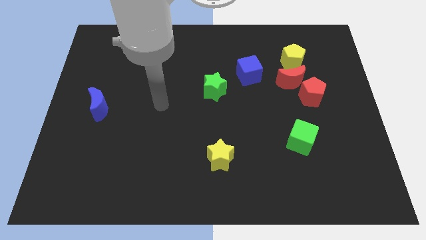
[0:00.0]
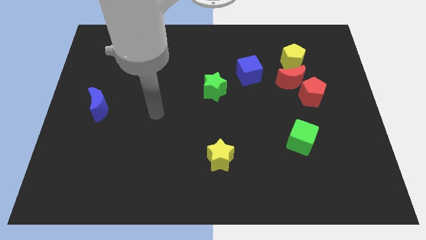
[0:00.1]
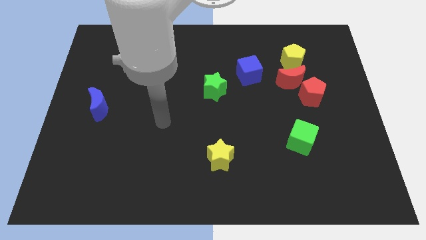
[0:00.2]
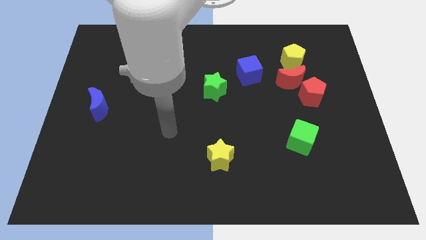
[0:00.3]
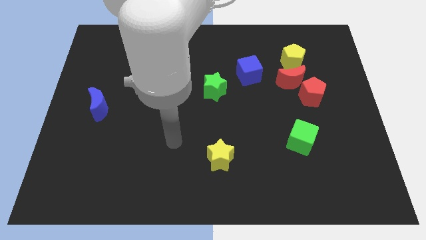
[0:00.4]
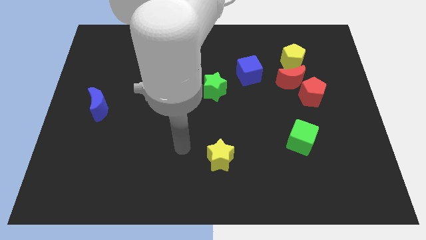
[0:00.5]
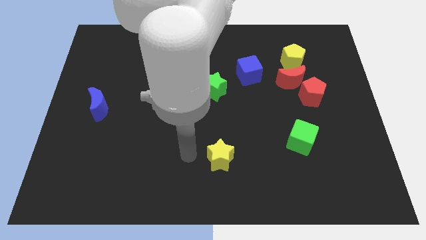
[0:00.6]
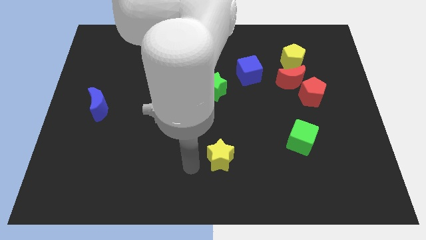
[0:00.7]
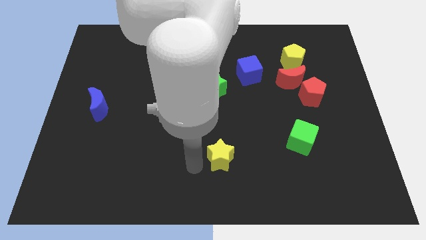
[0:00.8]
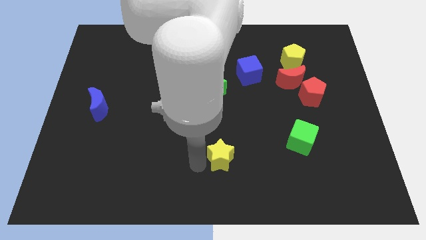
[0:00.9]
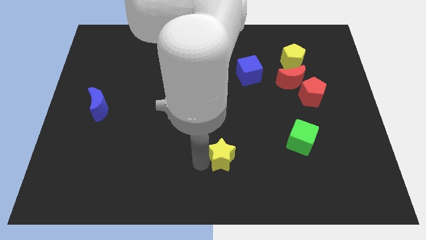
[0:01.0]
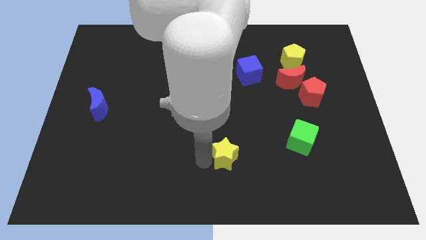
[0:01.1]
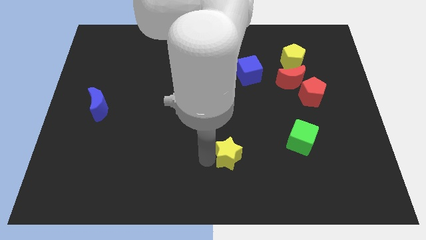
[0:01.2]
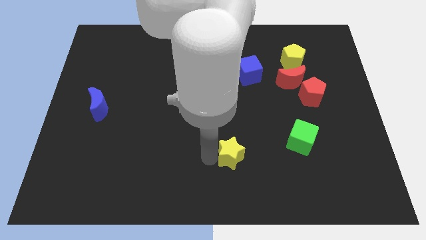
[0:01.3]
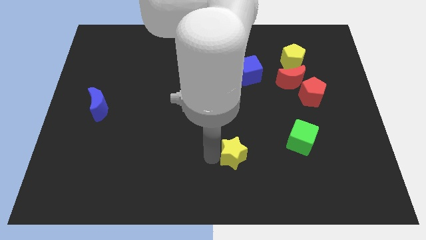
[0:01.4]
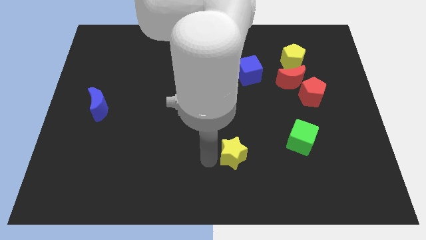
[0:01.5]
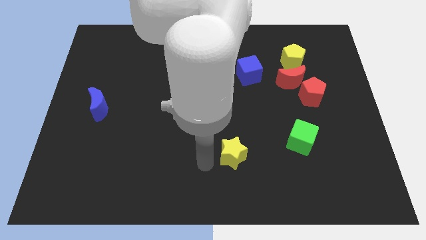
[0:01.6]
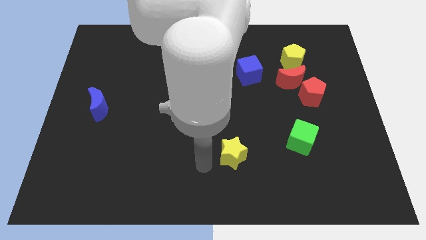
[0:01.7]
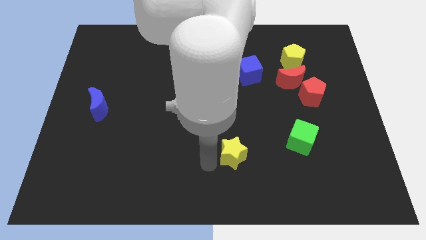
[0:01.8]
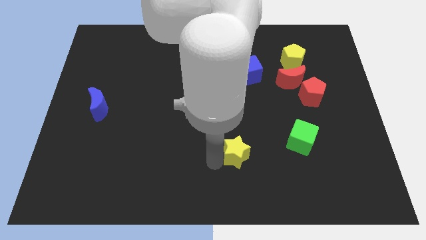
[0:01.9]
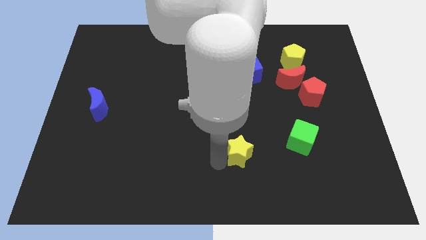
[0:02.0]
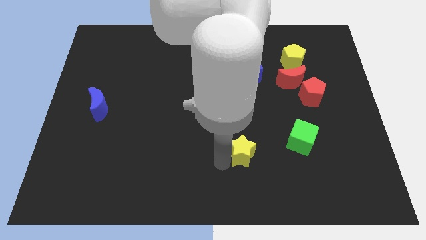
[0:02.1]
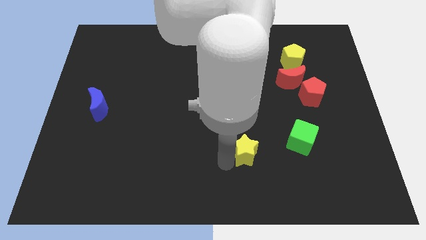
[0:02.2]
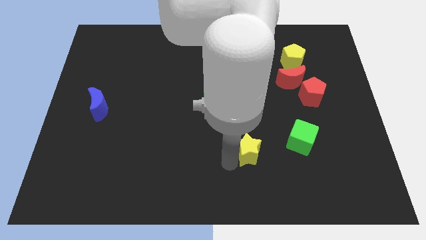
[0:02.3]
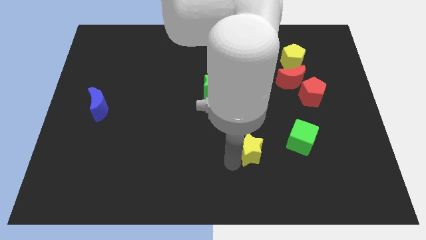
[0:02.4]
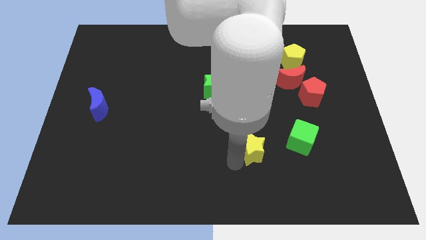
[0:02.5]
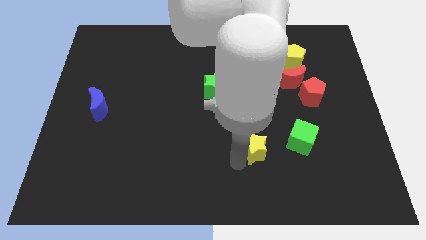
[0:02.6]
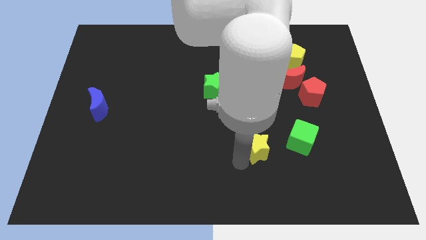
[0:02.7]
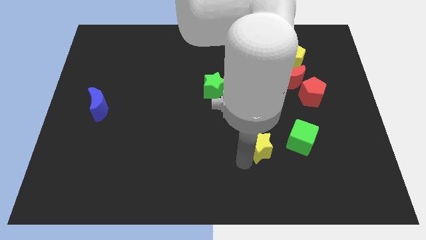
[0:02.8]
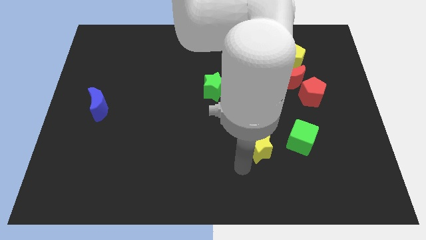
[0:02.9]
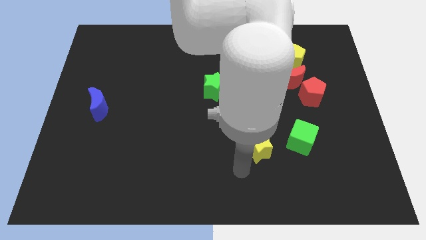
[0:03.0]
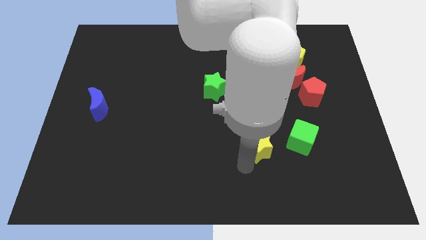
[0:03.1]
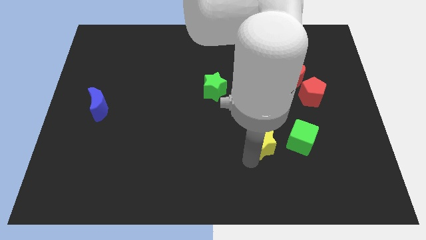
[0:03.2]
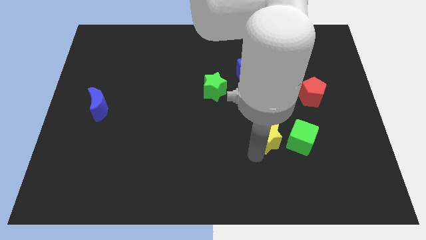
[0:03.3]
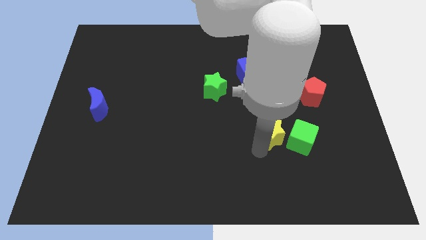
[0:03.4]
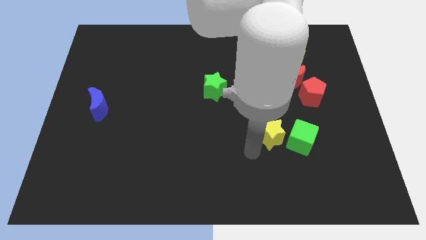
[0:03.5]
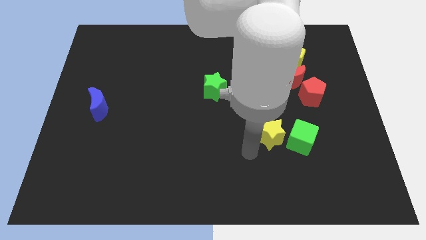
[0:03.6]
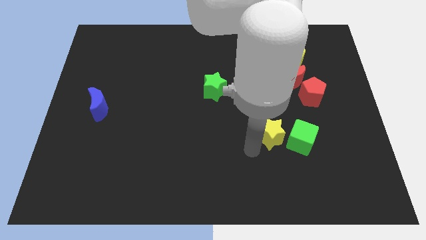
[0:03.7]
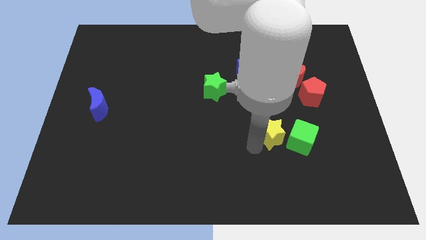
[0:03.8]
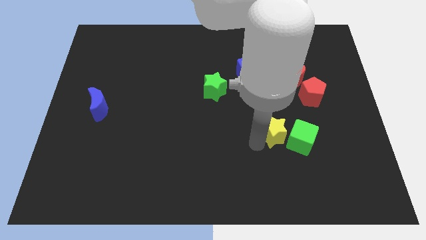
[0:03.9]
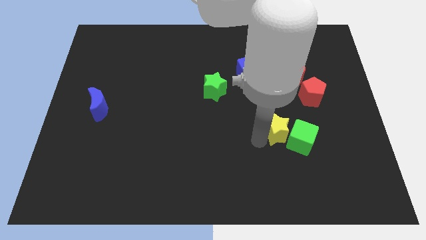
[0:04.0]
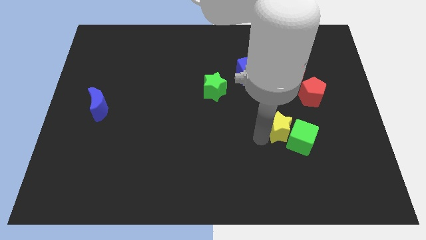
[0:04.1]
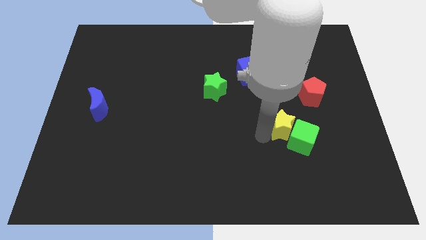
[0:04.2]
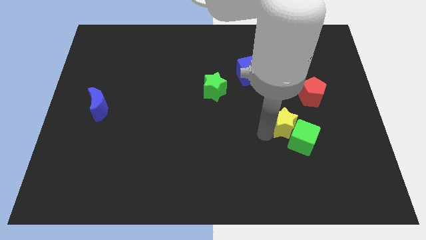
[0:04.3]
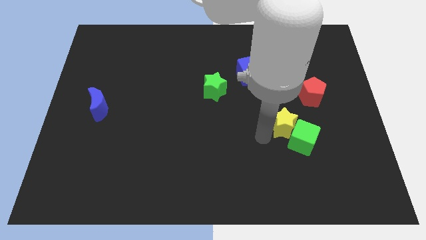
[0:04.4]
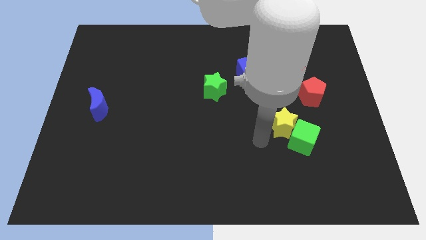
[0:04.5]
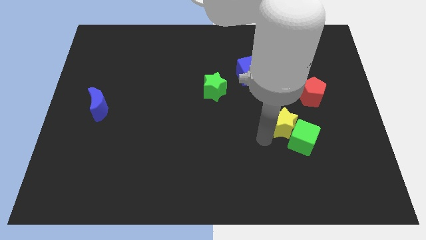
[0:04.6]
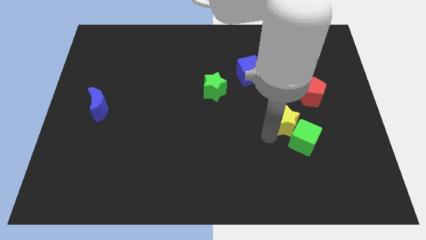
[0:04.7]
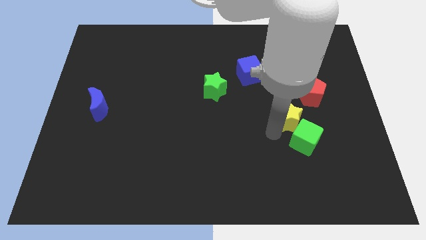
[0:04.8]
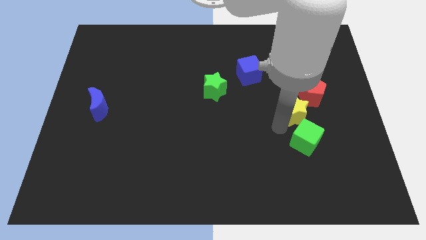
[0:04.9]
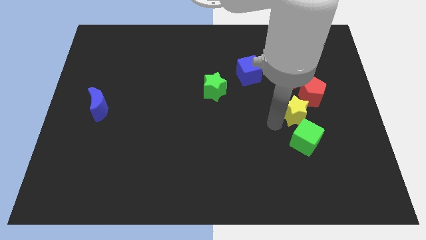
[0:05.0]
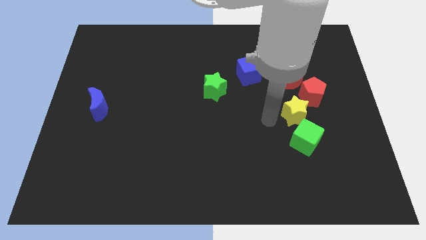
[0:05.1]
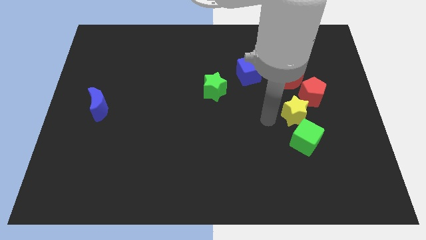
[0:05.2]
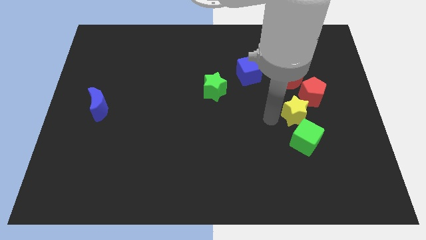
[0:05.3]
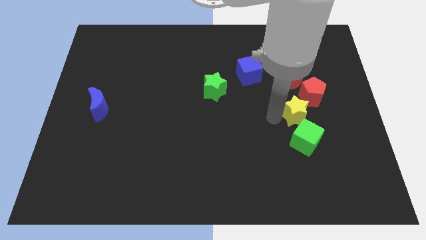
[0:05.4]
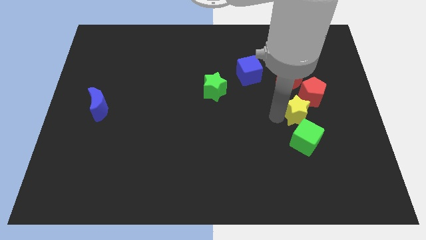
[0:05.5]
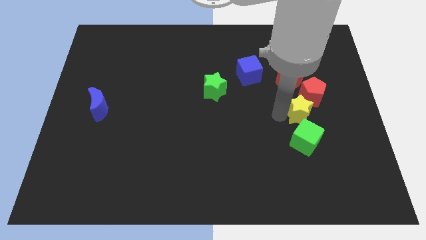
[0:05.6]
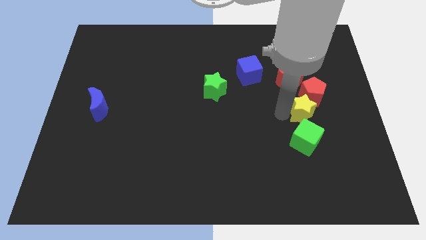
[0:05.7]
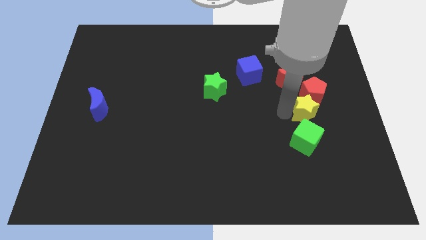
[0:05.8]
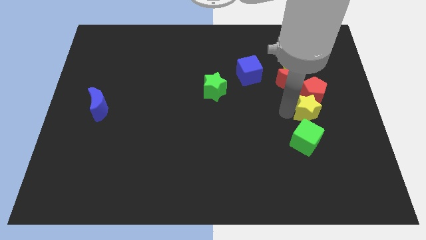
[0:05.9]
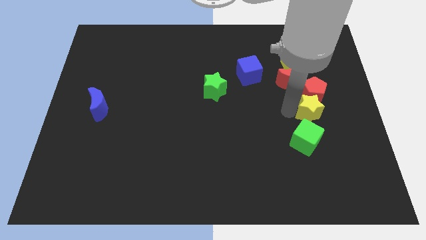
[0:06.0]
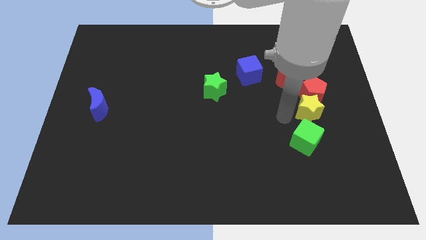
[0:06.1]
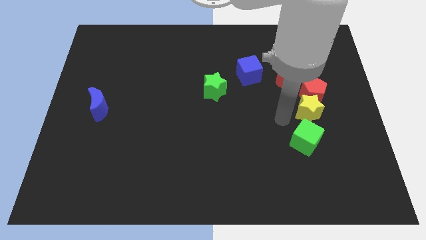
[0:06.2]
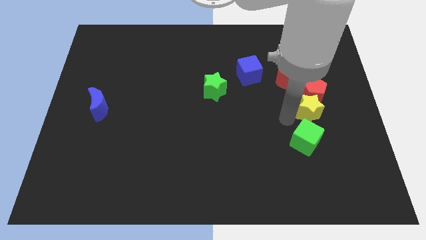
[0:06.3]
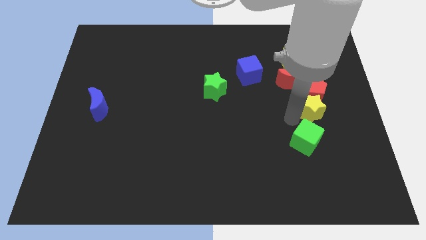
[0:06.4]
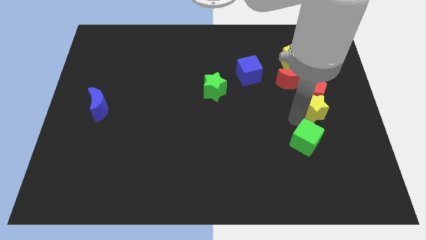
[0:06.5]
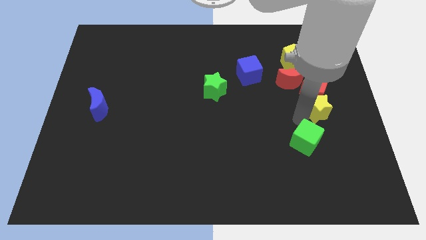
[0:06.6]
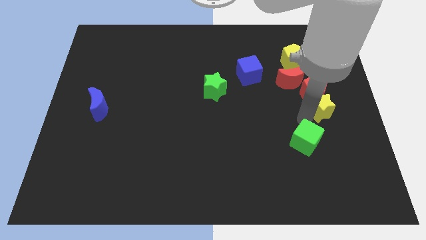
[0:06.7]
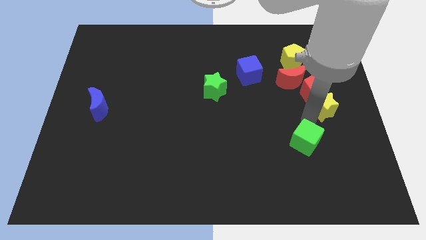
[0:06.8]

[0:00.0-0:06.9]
move the yellow star to the center right
